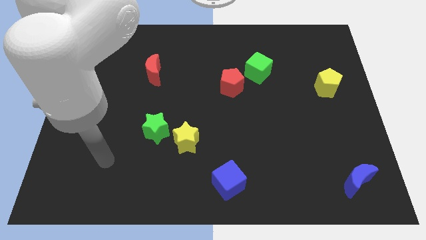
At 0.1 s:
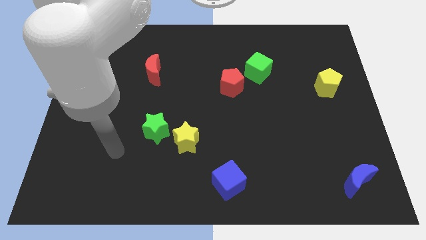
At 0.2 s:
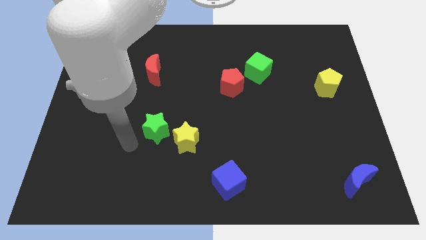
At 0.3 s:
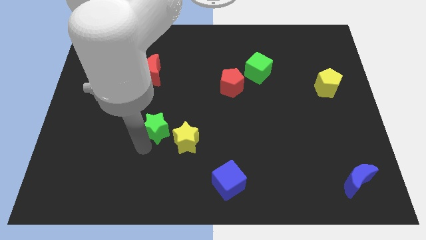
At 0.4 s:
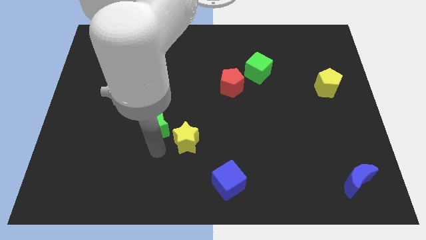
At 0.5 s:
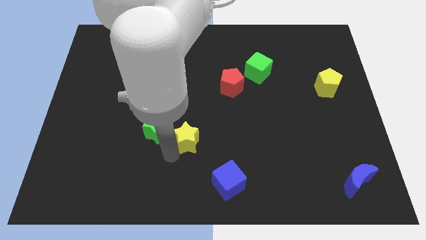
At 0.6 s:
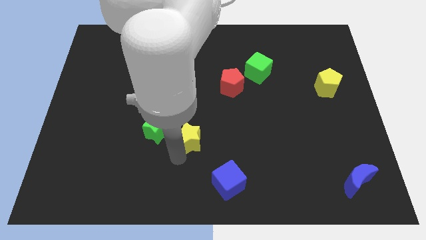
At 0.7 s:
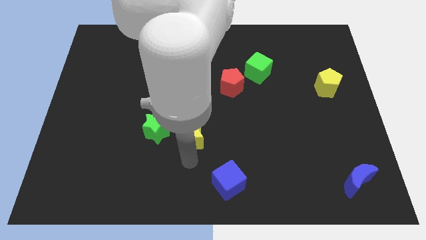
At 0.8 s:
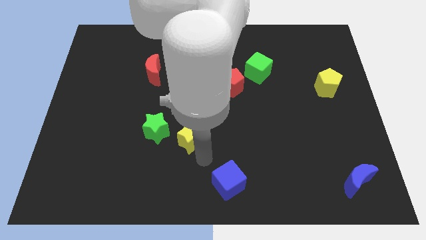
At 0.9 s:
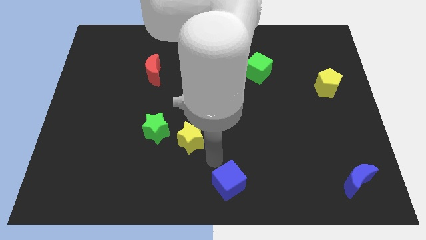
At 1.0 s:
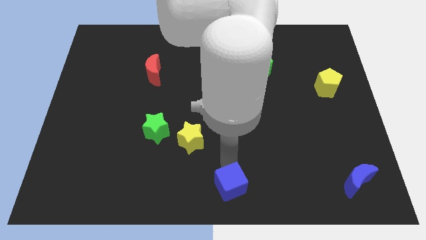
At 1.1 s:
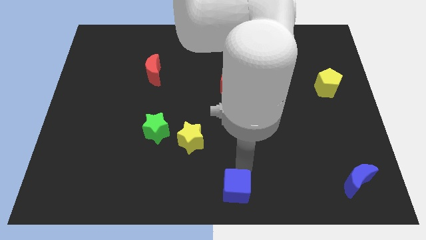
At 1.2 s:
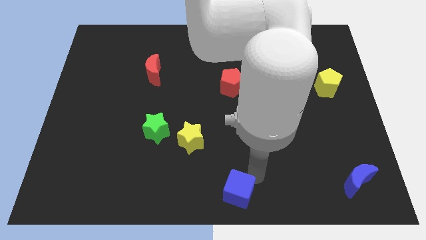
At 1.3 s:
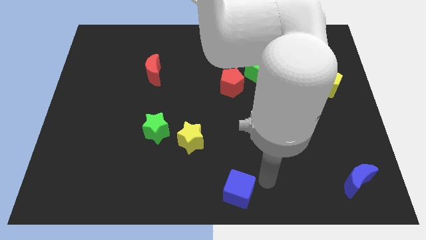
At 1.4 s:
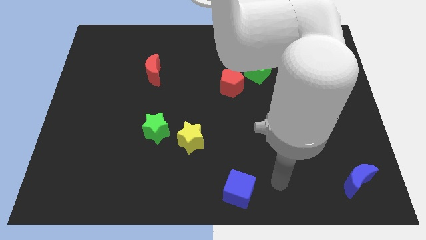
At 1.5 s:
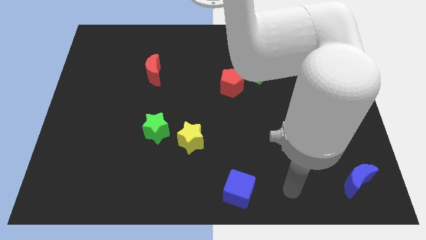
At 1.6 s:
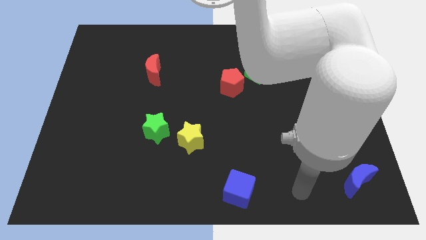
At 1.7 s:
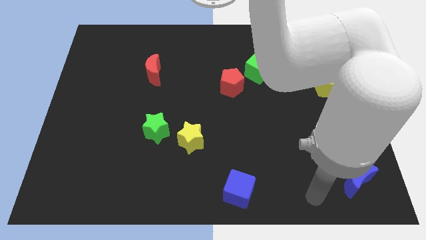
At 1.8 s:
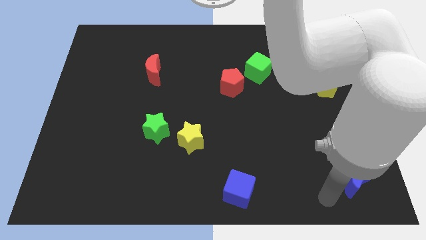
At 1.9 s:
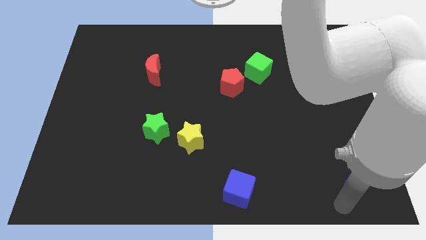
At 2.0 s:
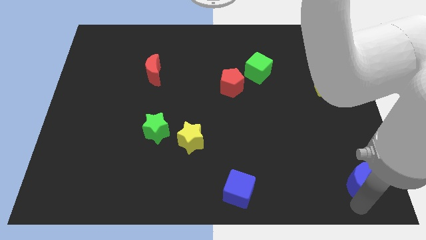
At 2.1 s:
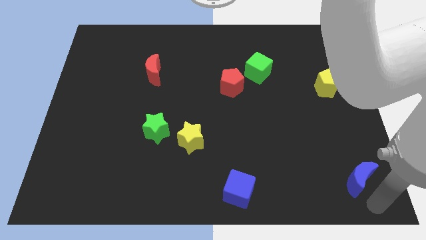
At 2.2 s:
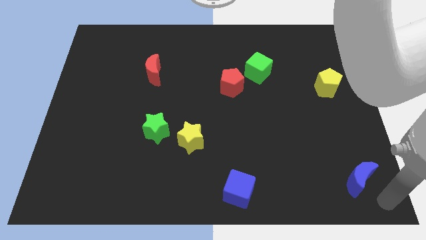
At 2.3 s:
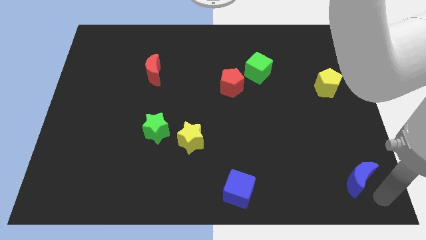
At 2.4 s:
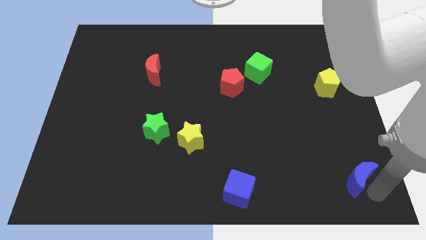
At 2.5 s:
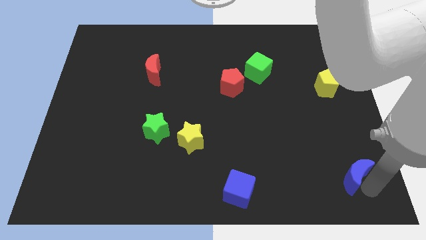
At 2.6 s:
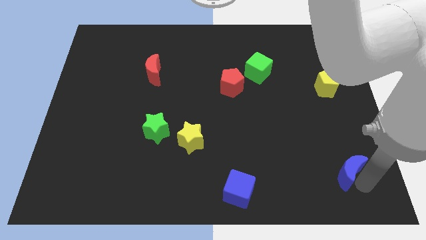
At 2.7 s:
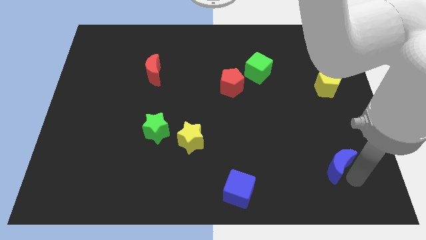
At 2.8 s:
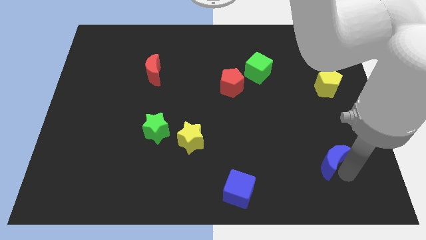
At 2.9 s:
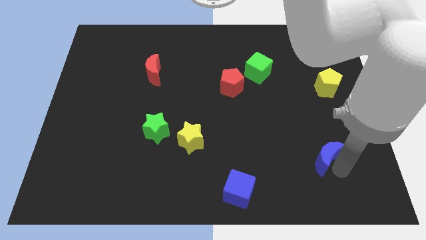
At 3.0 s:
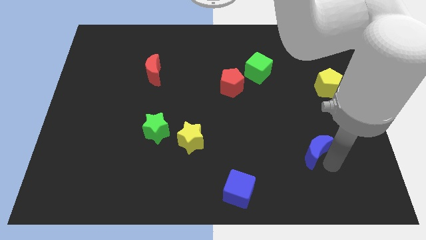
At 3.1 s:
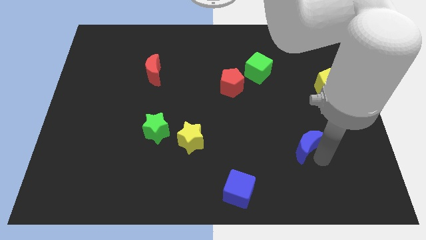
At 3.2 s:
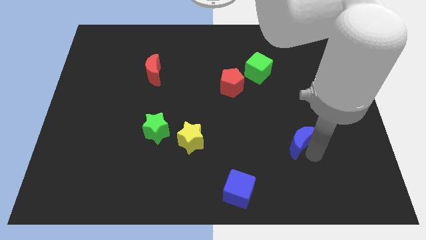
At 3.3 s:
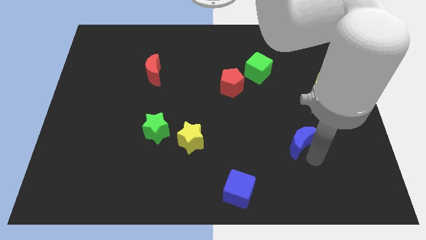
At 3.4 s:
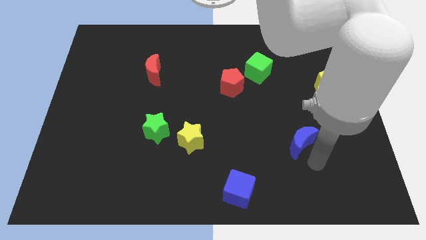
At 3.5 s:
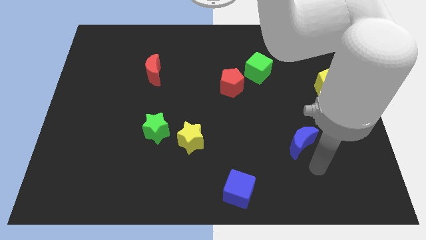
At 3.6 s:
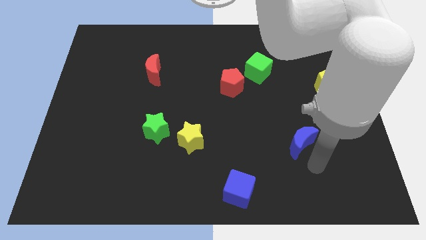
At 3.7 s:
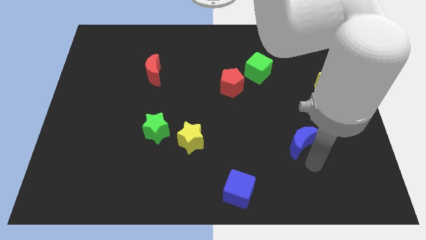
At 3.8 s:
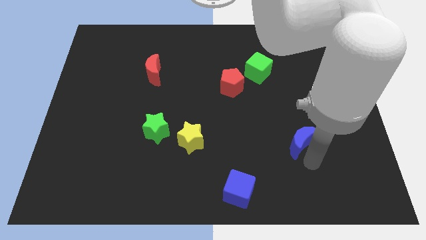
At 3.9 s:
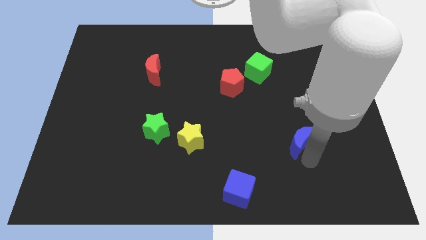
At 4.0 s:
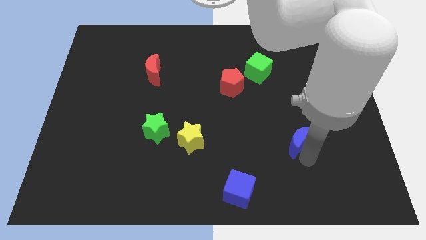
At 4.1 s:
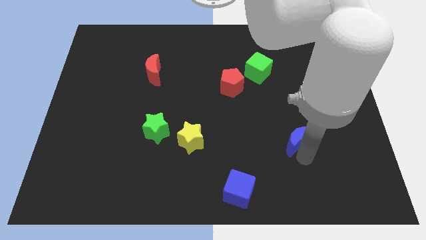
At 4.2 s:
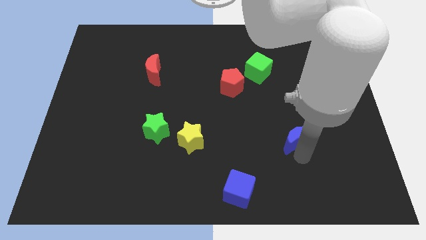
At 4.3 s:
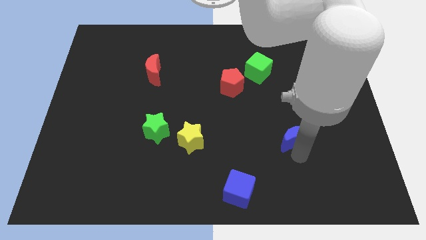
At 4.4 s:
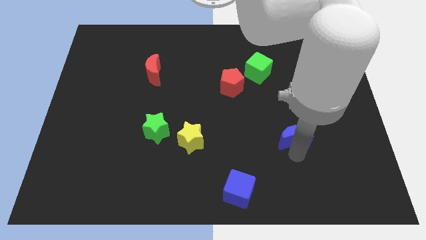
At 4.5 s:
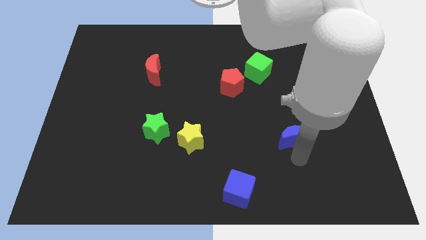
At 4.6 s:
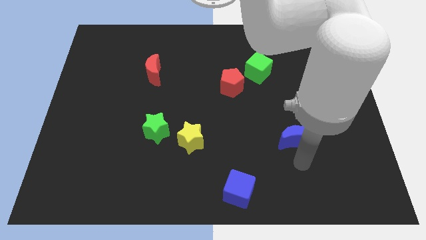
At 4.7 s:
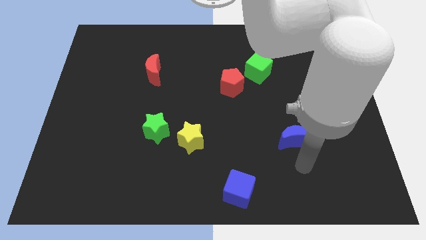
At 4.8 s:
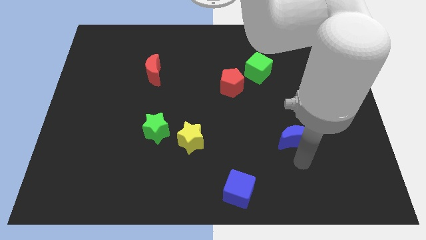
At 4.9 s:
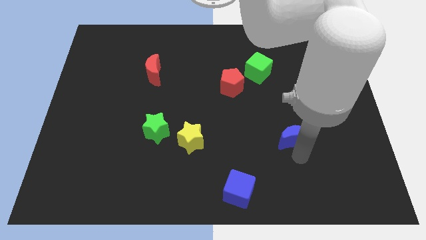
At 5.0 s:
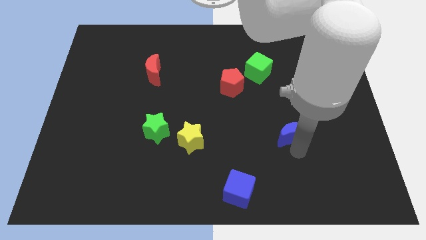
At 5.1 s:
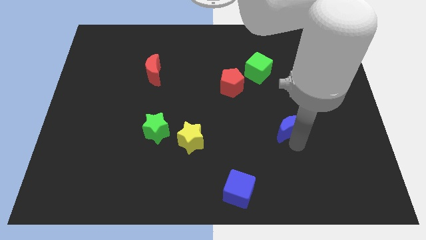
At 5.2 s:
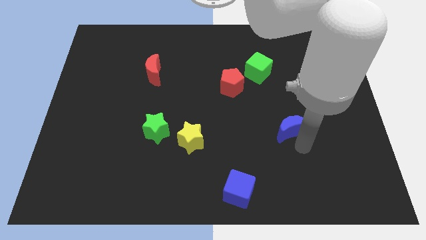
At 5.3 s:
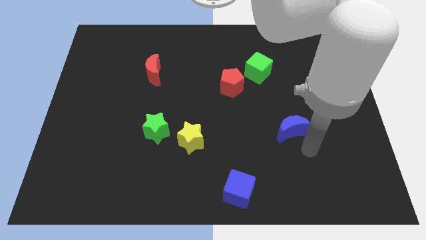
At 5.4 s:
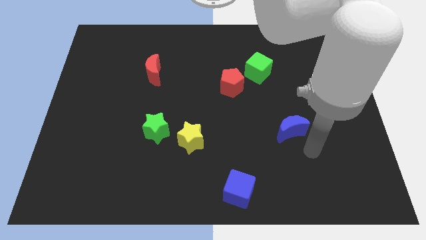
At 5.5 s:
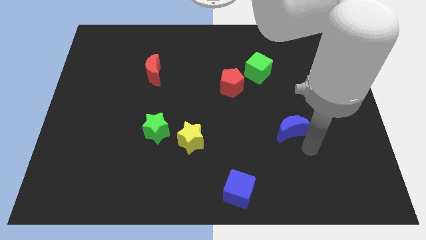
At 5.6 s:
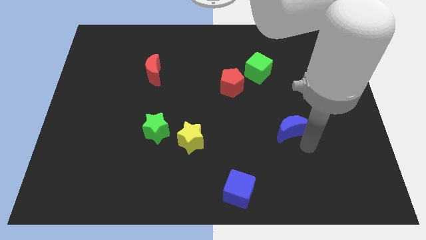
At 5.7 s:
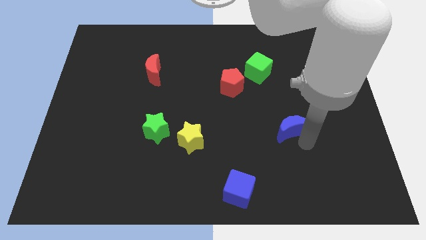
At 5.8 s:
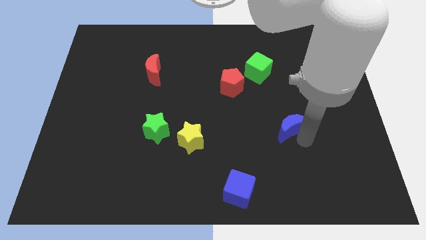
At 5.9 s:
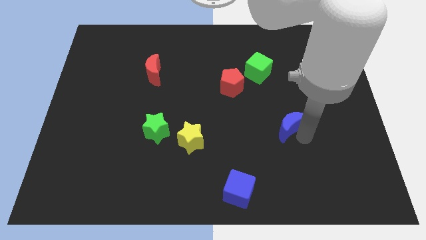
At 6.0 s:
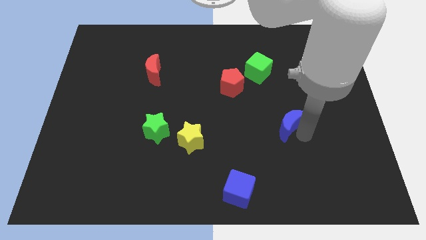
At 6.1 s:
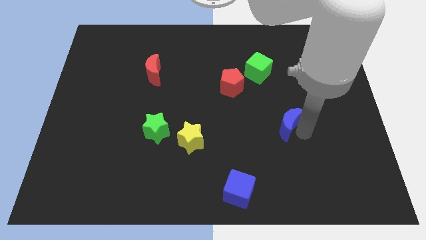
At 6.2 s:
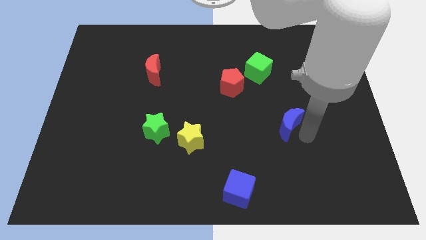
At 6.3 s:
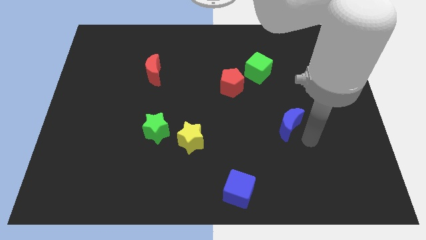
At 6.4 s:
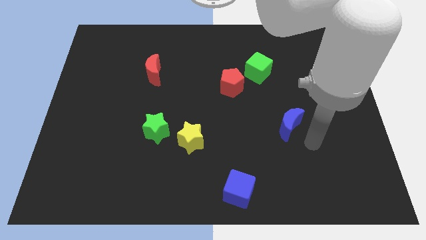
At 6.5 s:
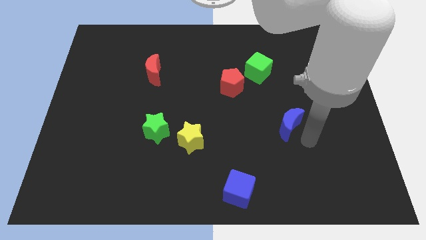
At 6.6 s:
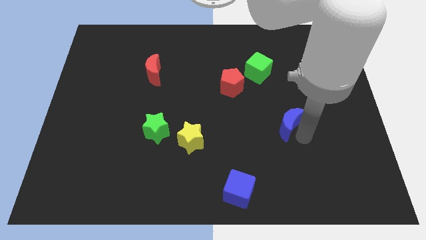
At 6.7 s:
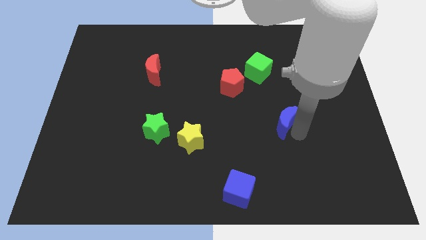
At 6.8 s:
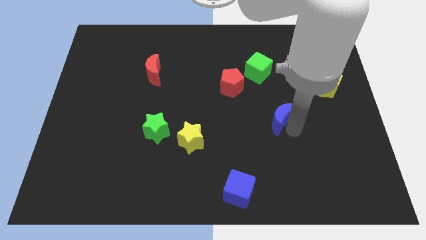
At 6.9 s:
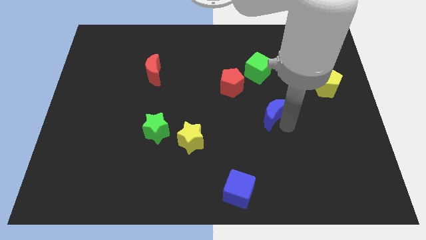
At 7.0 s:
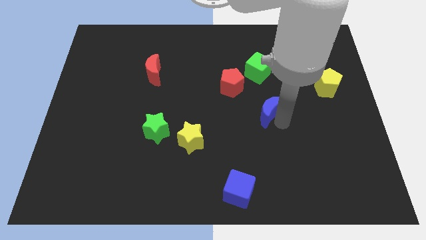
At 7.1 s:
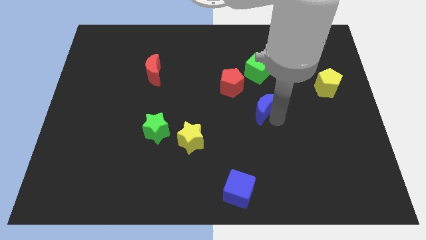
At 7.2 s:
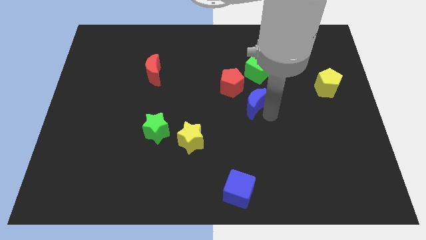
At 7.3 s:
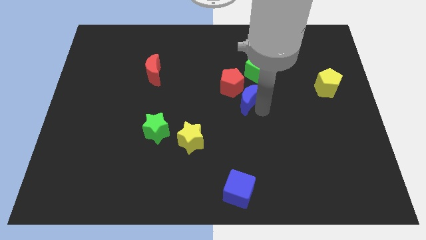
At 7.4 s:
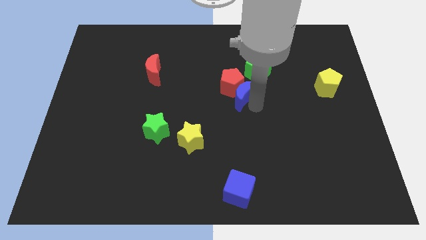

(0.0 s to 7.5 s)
push the blue moon close to the red pentagon

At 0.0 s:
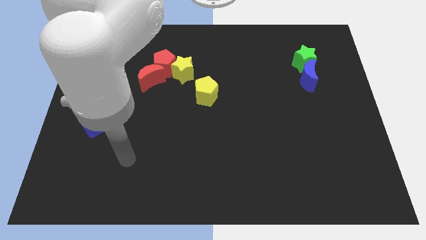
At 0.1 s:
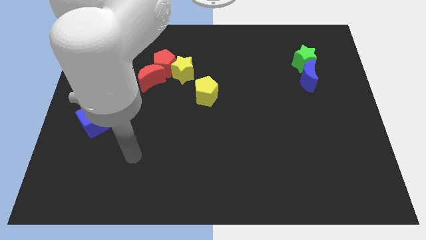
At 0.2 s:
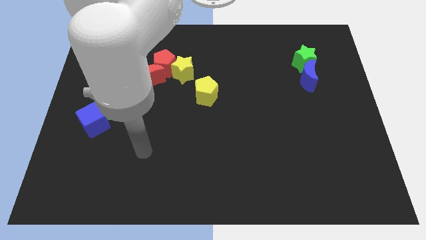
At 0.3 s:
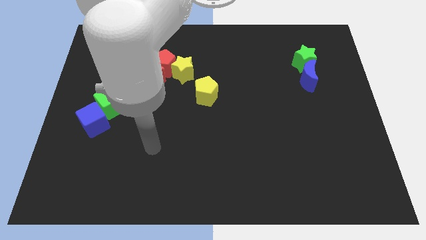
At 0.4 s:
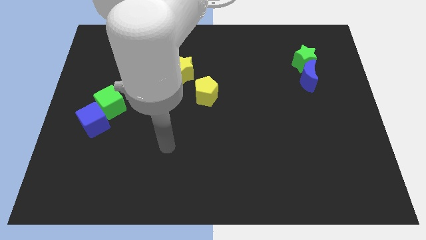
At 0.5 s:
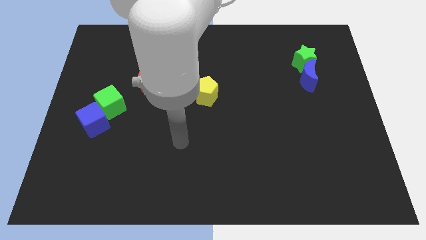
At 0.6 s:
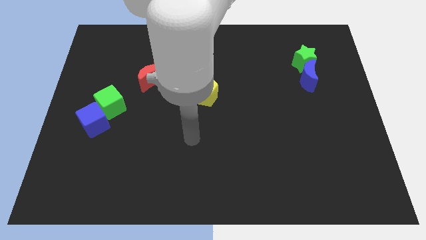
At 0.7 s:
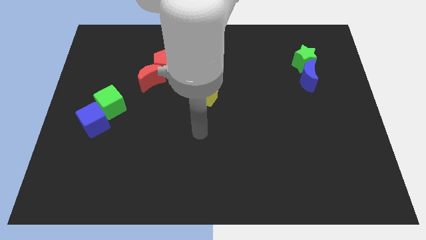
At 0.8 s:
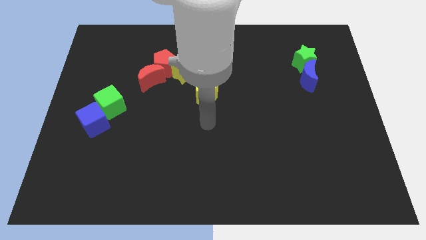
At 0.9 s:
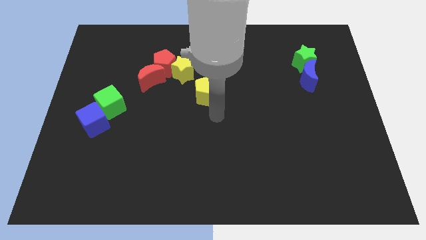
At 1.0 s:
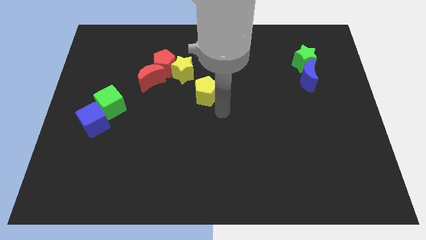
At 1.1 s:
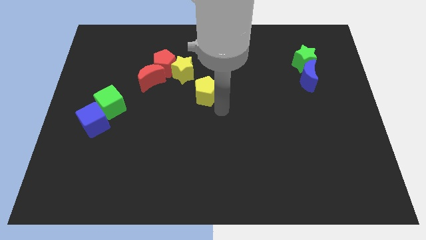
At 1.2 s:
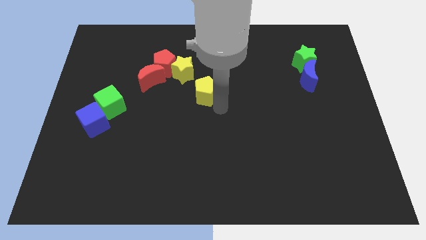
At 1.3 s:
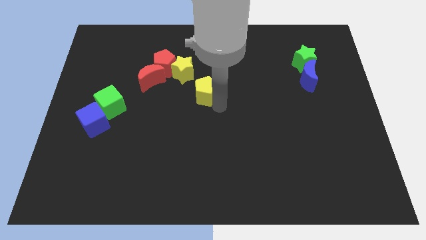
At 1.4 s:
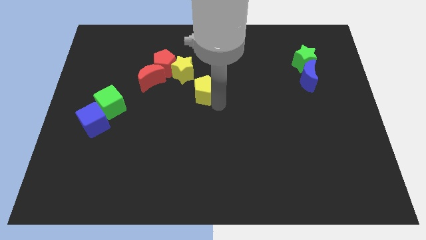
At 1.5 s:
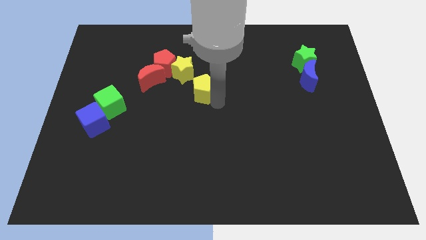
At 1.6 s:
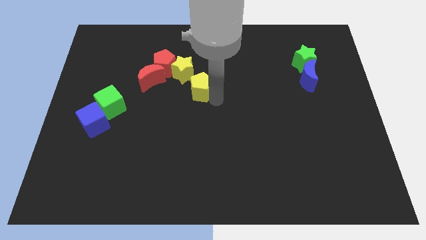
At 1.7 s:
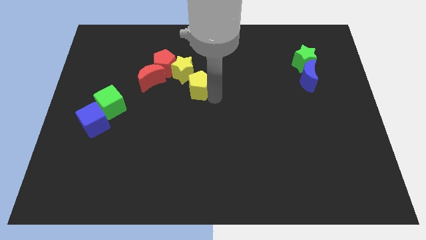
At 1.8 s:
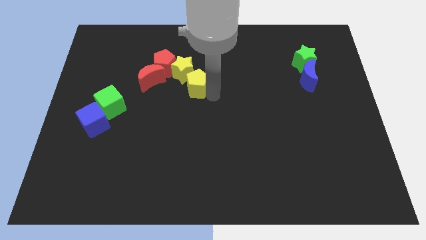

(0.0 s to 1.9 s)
move the yellow pentagon to the yellow star
